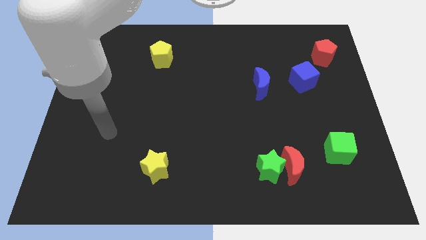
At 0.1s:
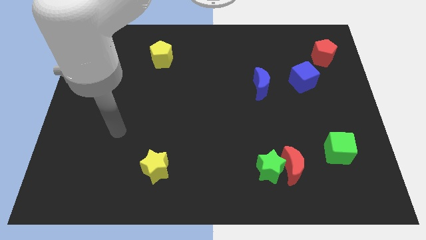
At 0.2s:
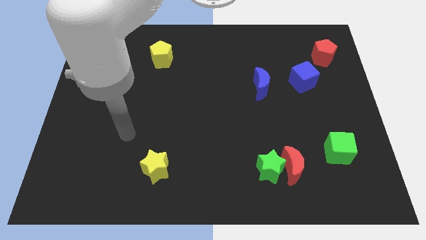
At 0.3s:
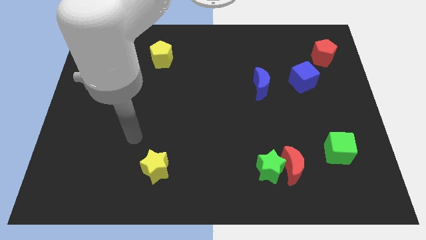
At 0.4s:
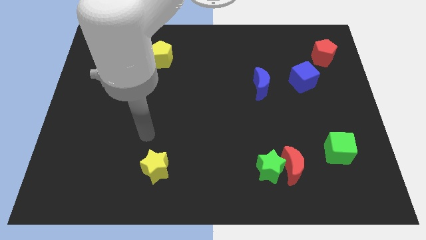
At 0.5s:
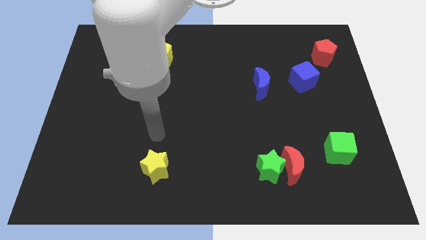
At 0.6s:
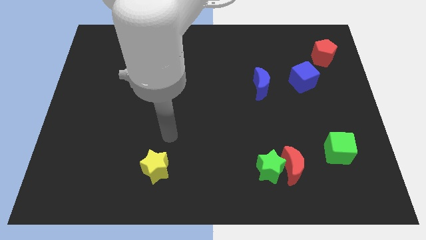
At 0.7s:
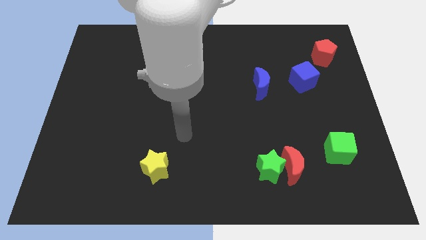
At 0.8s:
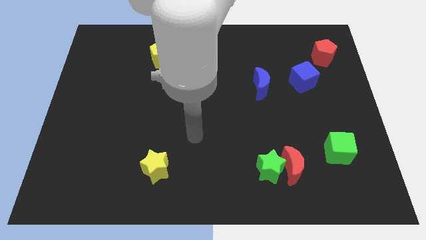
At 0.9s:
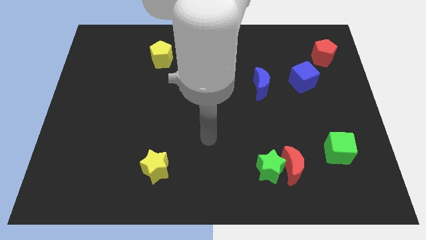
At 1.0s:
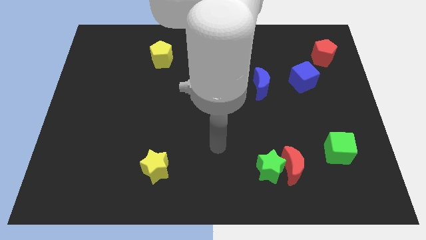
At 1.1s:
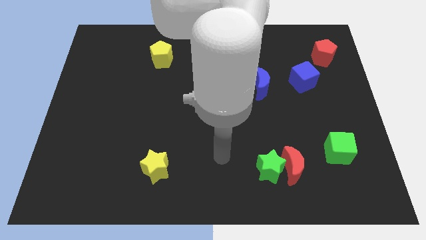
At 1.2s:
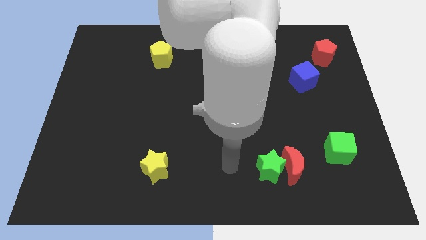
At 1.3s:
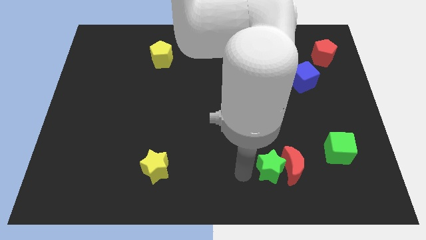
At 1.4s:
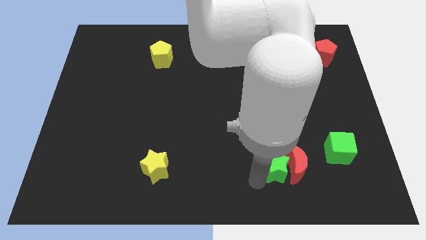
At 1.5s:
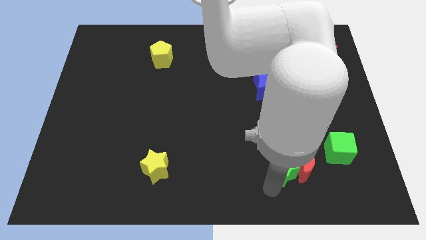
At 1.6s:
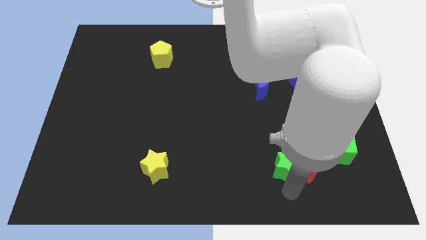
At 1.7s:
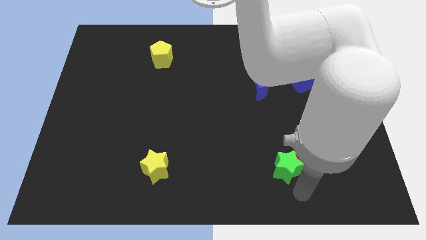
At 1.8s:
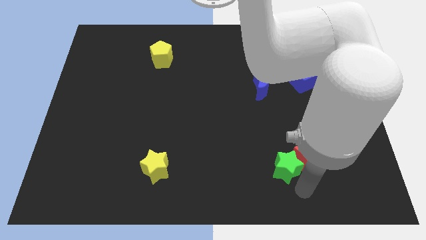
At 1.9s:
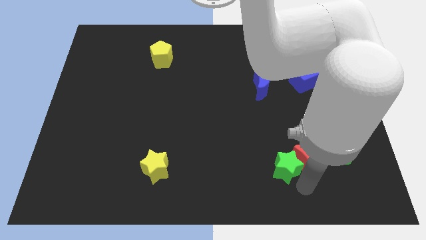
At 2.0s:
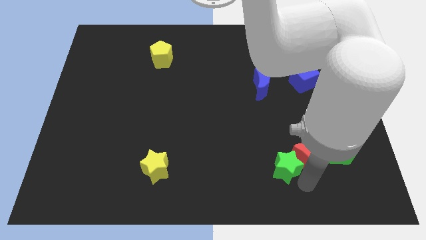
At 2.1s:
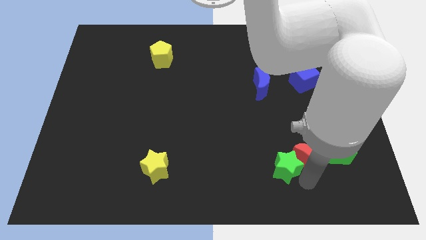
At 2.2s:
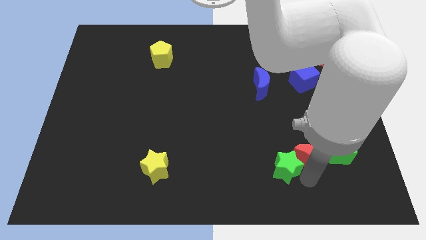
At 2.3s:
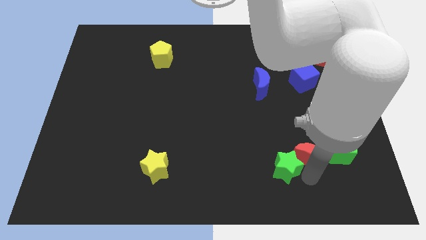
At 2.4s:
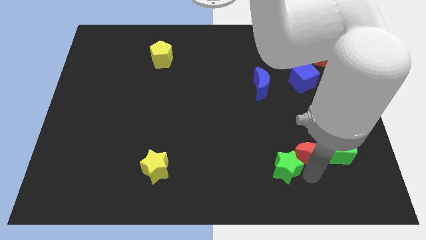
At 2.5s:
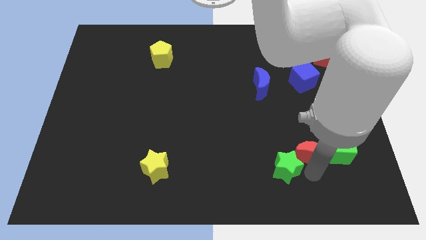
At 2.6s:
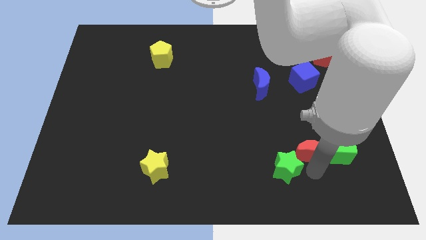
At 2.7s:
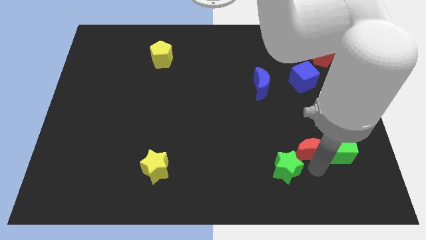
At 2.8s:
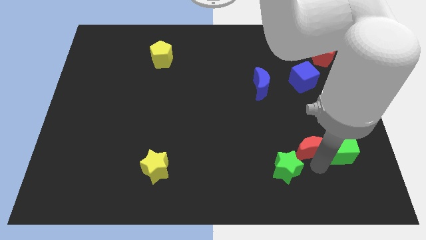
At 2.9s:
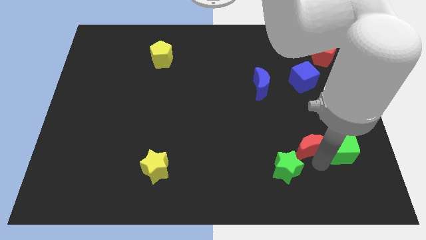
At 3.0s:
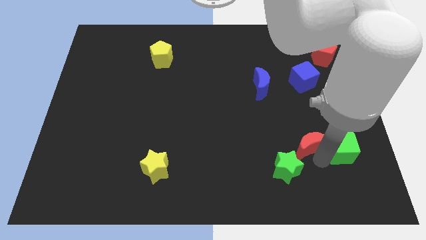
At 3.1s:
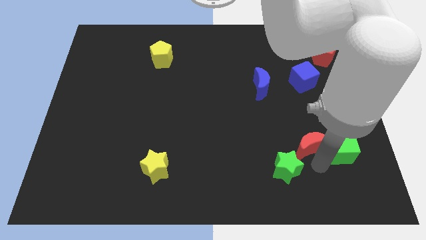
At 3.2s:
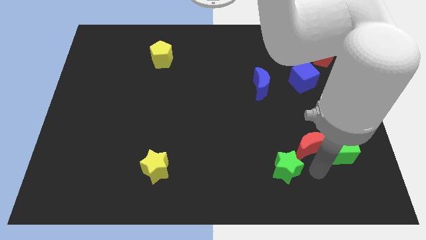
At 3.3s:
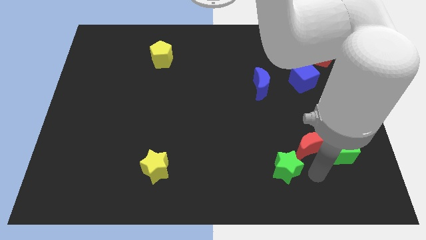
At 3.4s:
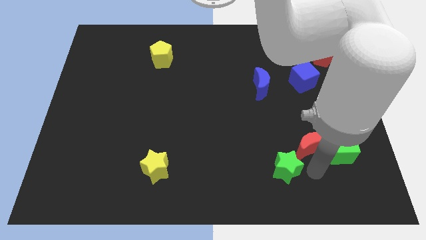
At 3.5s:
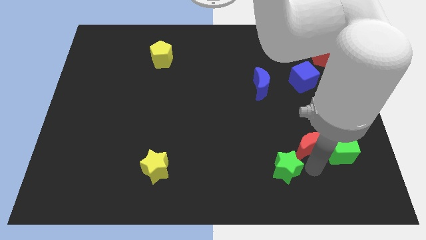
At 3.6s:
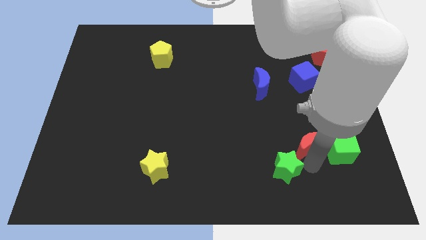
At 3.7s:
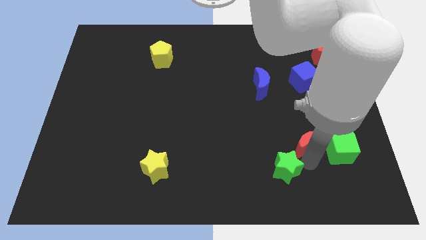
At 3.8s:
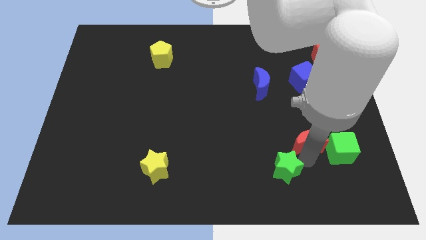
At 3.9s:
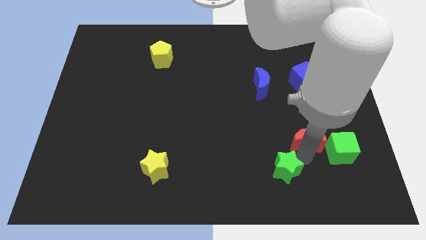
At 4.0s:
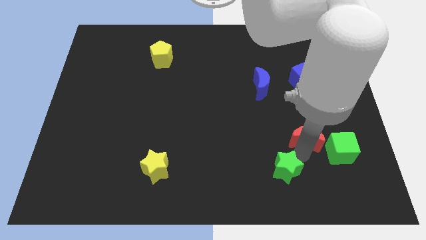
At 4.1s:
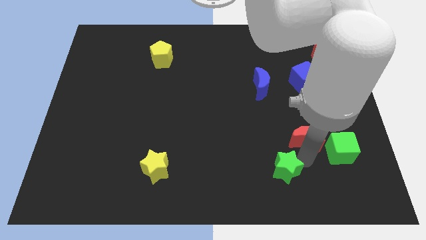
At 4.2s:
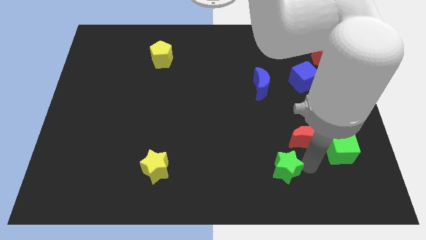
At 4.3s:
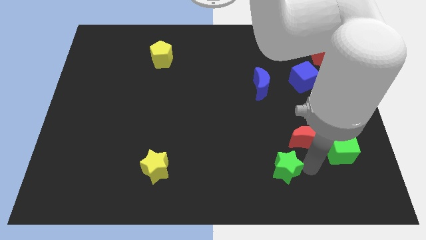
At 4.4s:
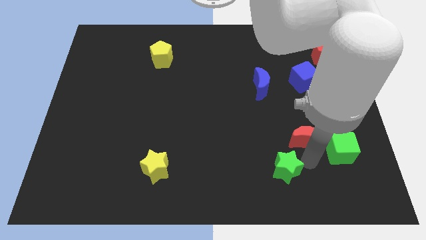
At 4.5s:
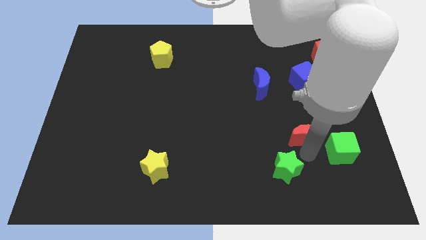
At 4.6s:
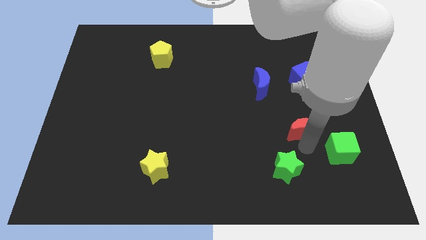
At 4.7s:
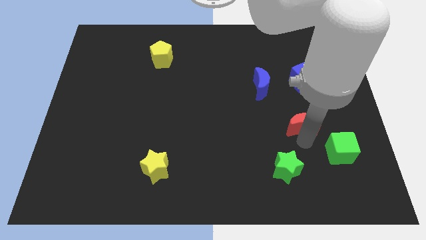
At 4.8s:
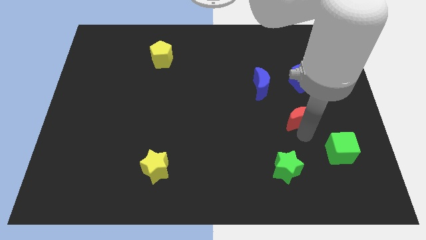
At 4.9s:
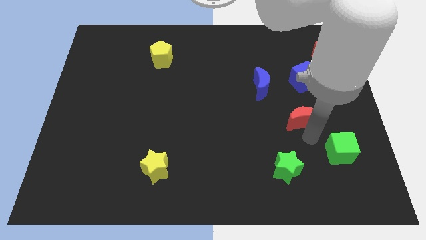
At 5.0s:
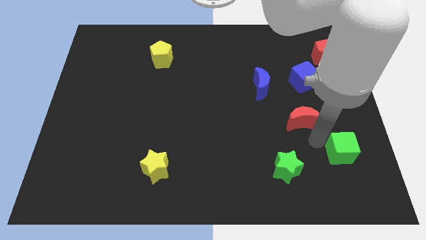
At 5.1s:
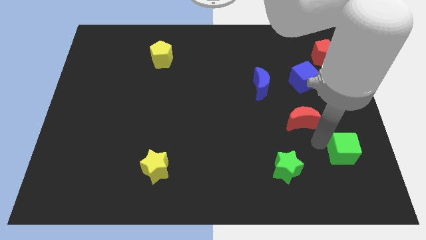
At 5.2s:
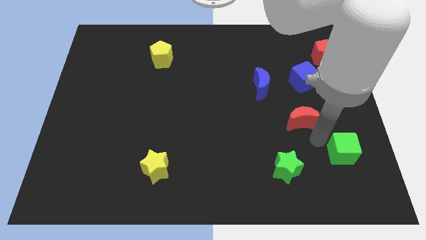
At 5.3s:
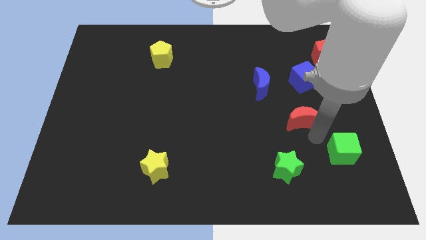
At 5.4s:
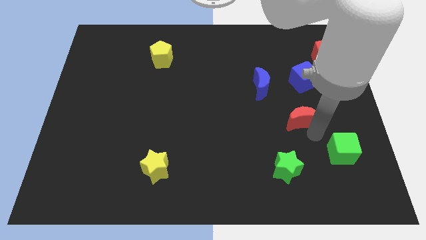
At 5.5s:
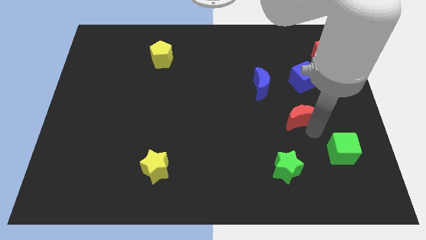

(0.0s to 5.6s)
slide the red moon diagonally down and to the right of the blue moon
